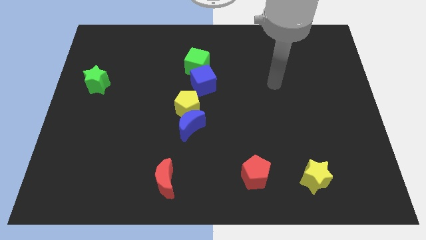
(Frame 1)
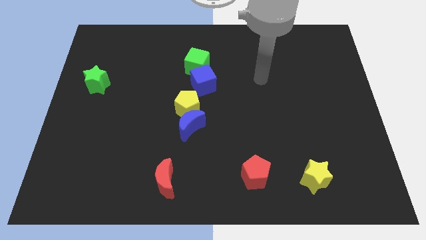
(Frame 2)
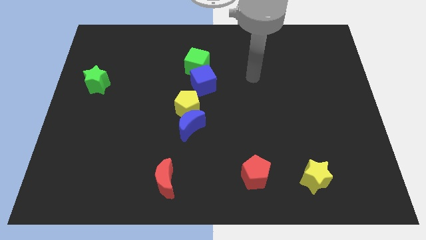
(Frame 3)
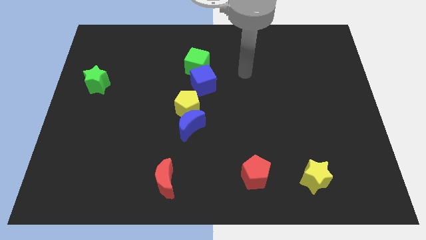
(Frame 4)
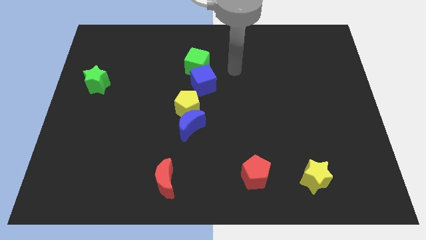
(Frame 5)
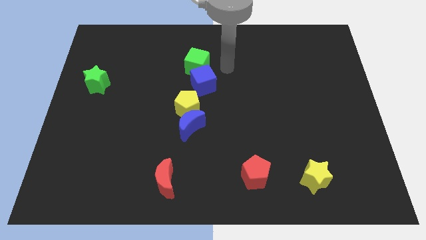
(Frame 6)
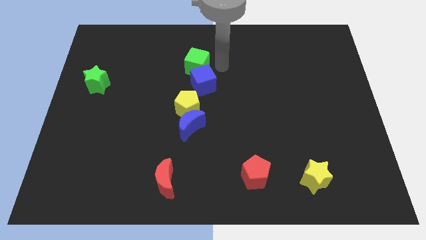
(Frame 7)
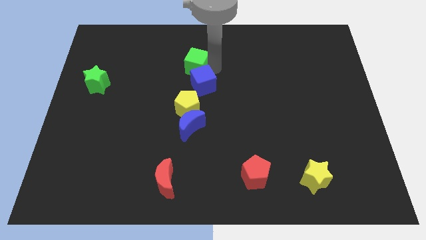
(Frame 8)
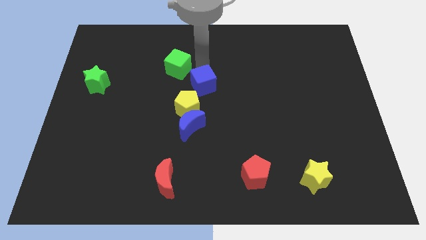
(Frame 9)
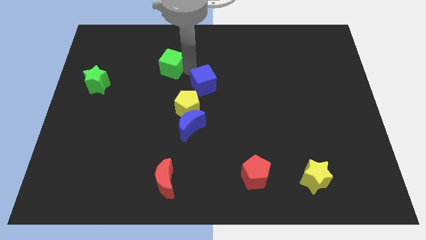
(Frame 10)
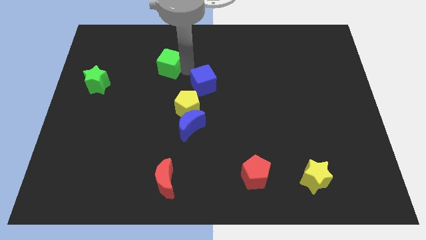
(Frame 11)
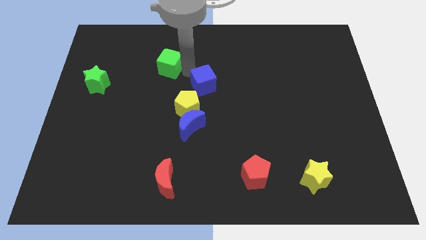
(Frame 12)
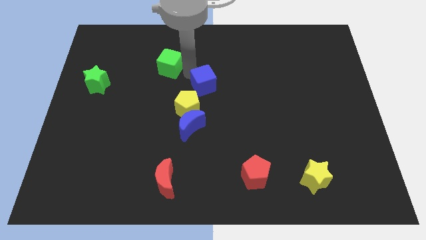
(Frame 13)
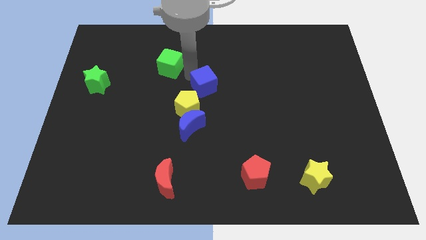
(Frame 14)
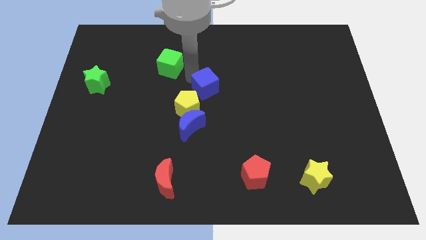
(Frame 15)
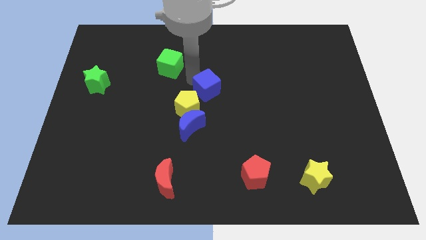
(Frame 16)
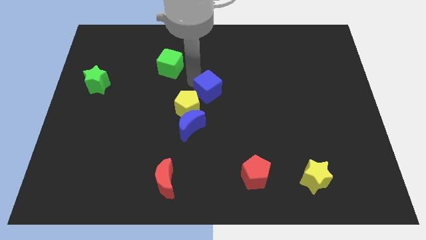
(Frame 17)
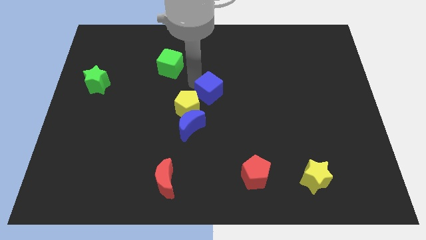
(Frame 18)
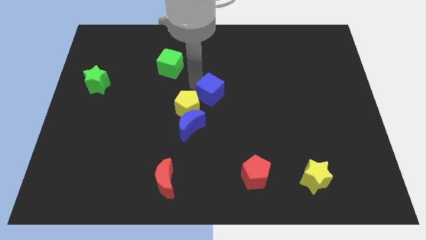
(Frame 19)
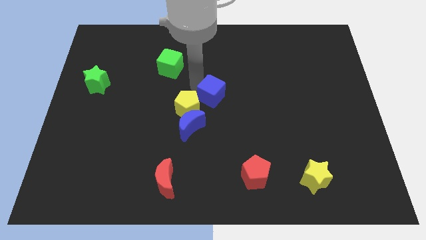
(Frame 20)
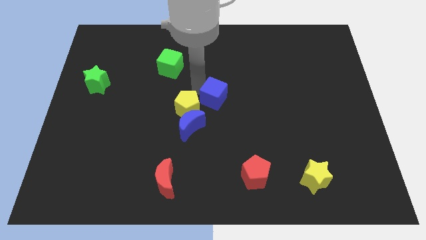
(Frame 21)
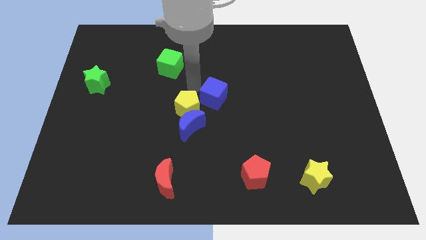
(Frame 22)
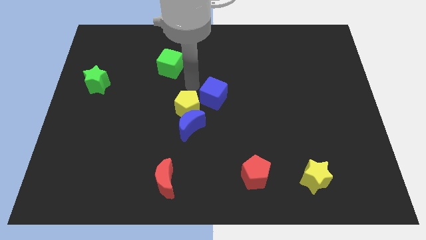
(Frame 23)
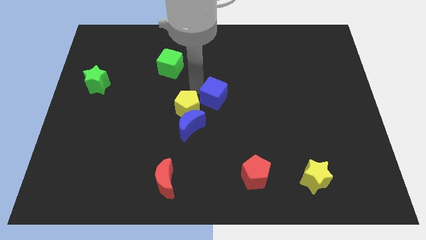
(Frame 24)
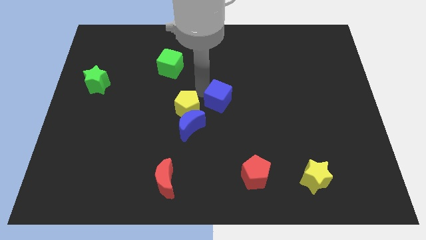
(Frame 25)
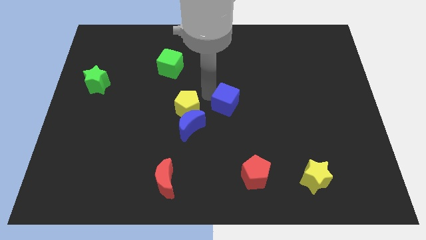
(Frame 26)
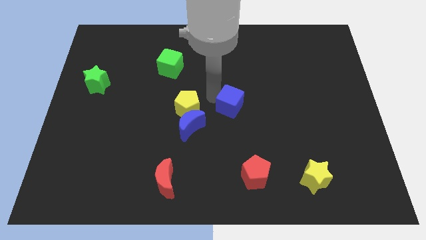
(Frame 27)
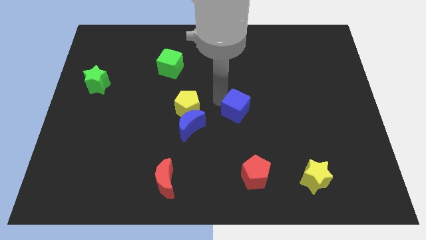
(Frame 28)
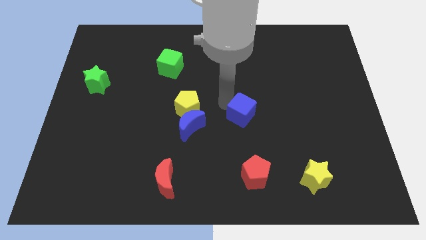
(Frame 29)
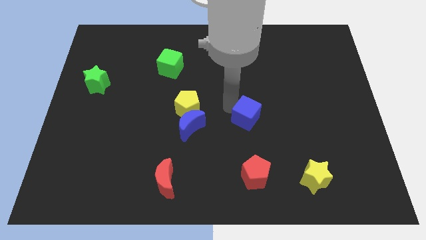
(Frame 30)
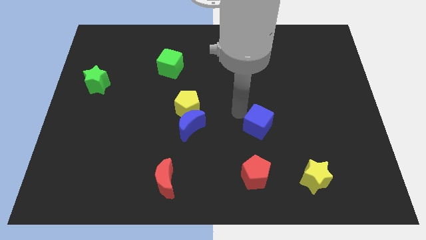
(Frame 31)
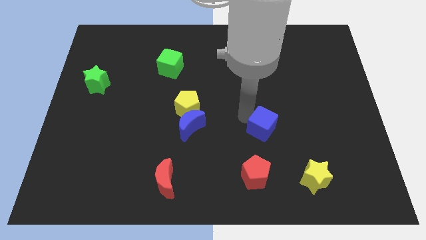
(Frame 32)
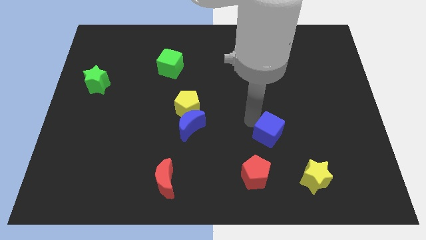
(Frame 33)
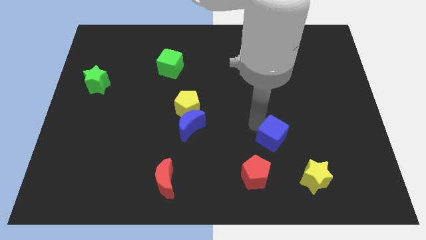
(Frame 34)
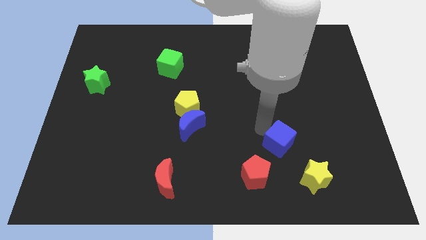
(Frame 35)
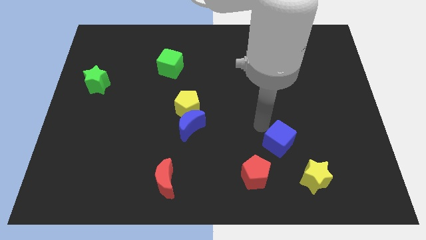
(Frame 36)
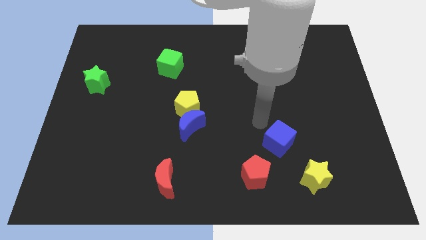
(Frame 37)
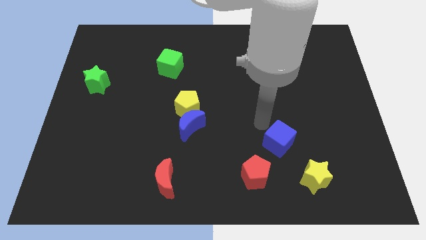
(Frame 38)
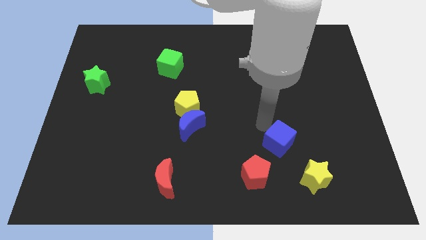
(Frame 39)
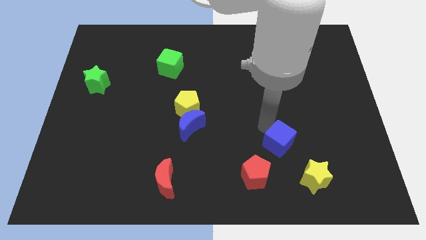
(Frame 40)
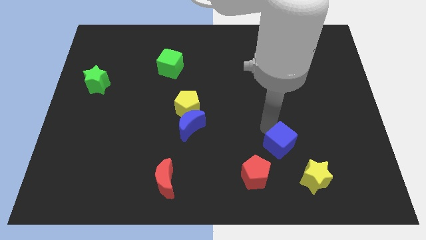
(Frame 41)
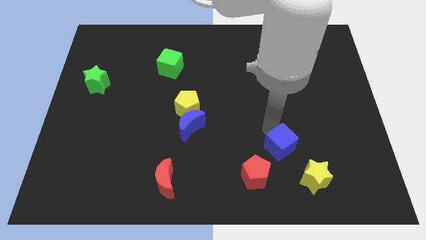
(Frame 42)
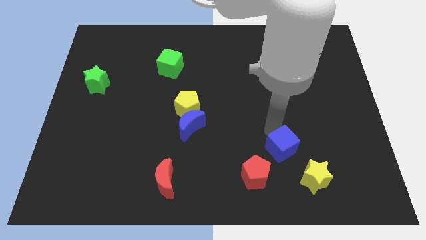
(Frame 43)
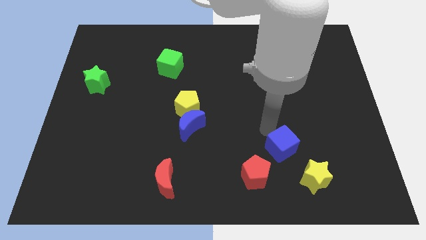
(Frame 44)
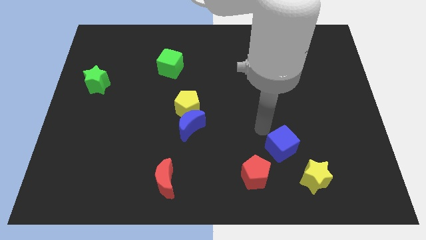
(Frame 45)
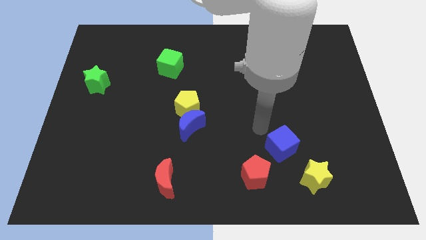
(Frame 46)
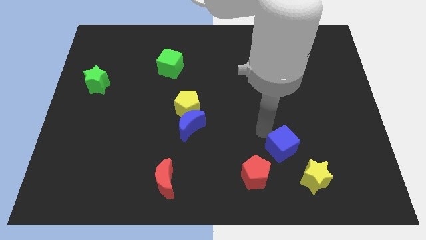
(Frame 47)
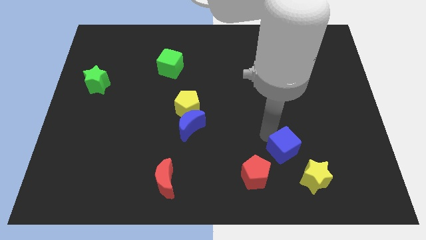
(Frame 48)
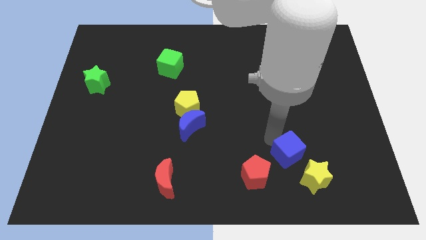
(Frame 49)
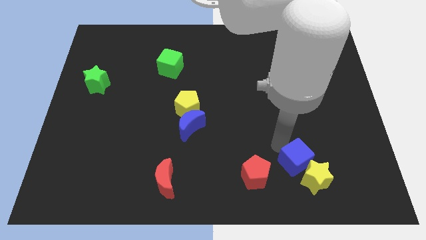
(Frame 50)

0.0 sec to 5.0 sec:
slide the blue cube towards the yellow star

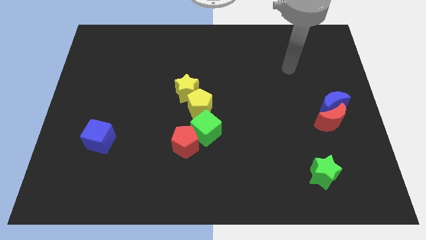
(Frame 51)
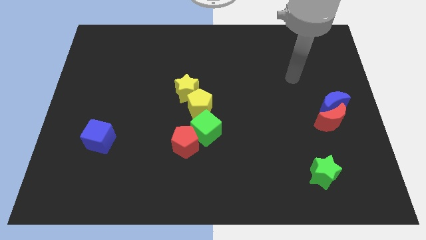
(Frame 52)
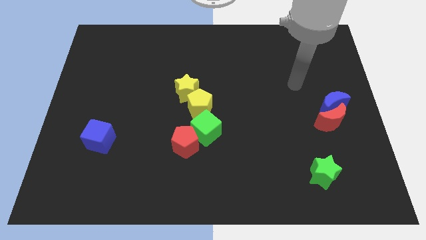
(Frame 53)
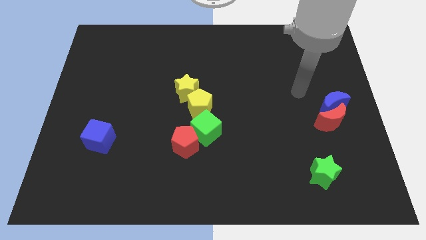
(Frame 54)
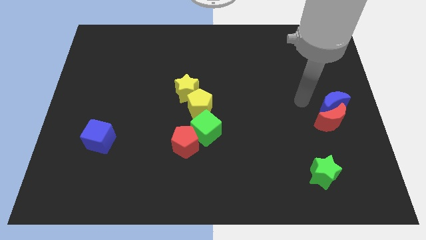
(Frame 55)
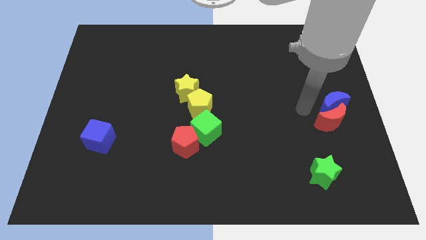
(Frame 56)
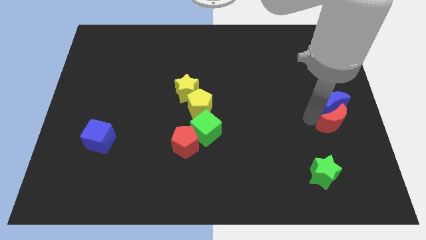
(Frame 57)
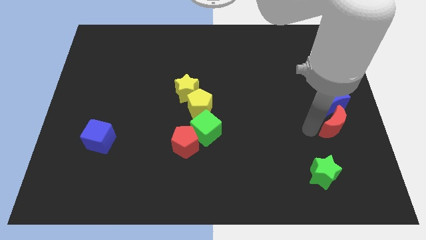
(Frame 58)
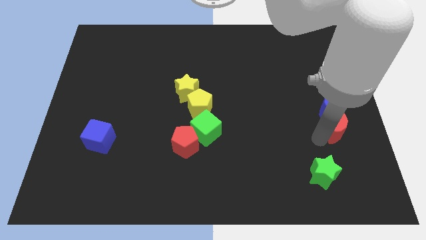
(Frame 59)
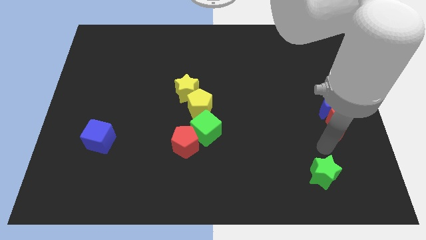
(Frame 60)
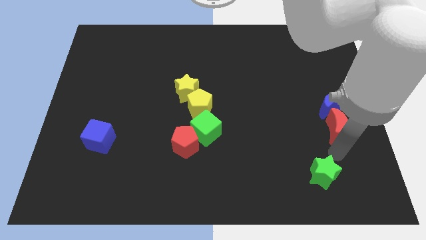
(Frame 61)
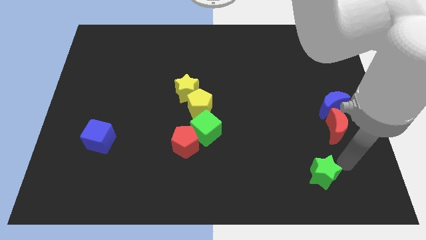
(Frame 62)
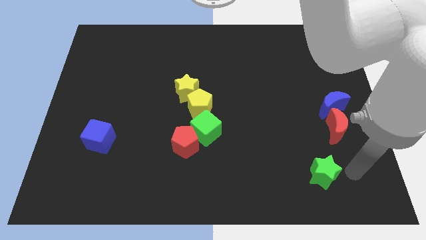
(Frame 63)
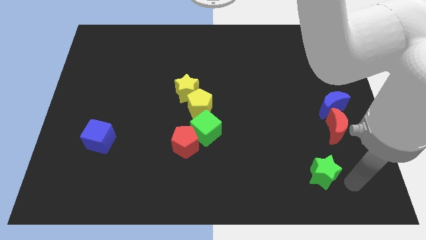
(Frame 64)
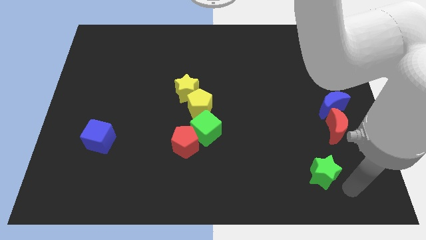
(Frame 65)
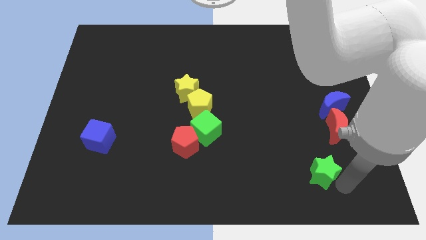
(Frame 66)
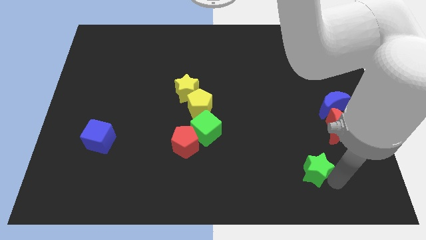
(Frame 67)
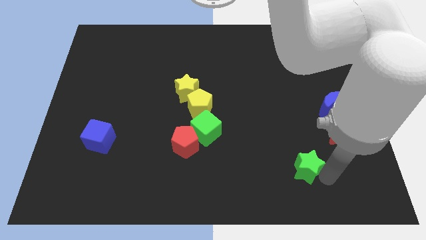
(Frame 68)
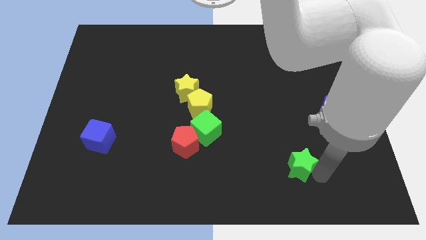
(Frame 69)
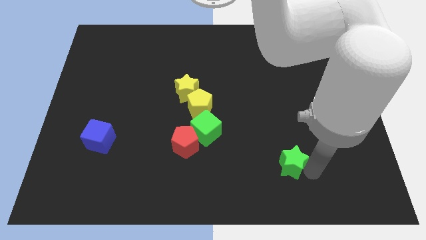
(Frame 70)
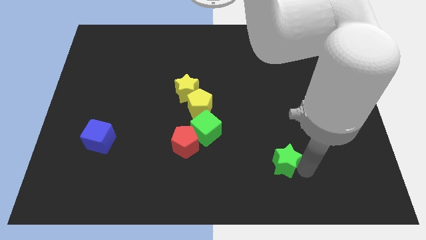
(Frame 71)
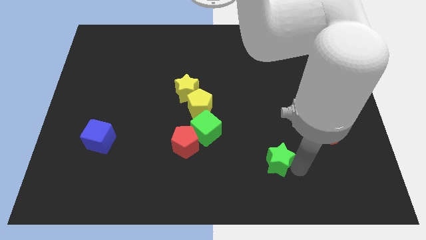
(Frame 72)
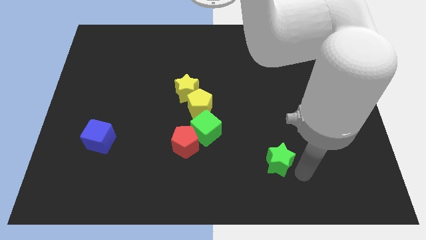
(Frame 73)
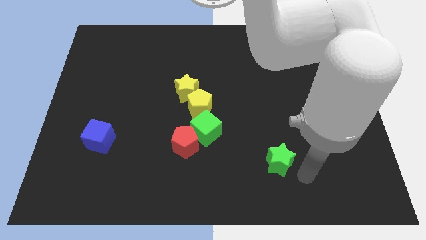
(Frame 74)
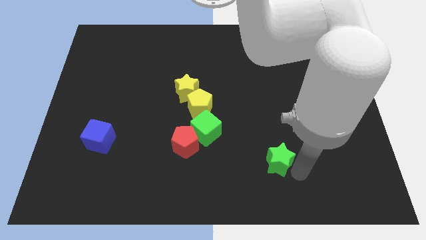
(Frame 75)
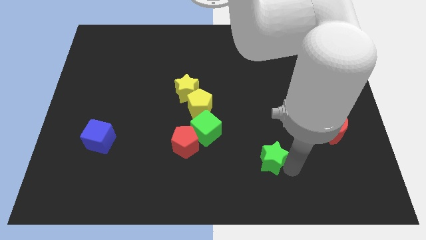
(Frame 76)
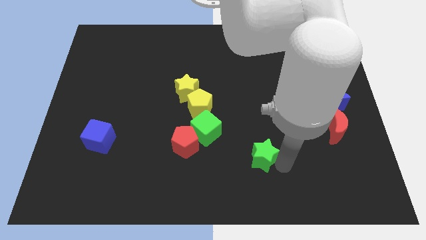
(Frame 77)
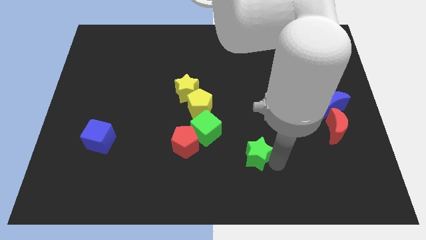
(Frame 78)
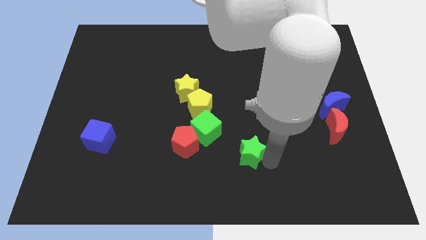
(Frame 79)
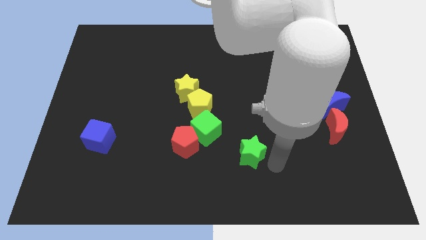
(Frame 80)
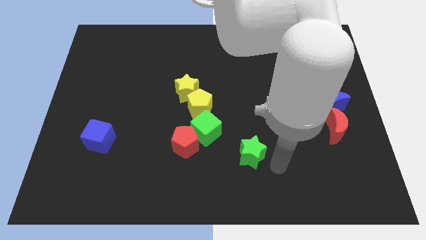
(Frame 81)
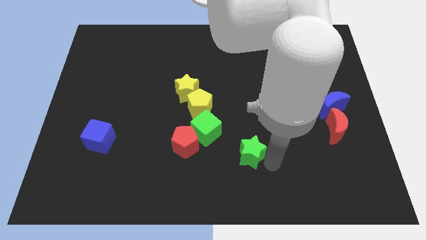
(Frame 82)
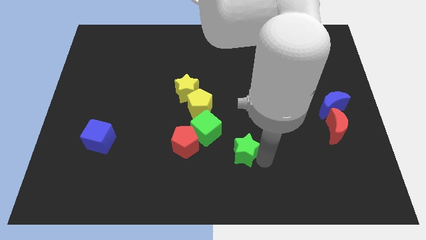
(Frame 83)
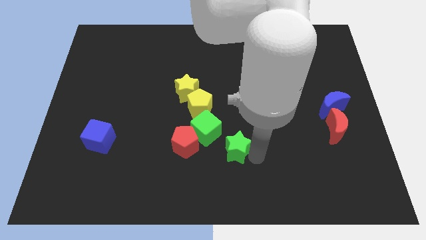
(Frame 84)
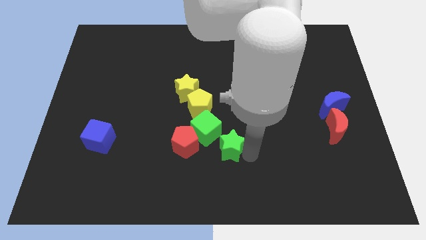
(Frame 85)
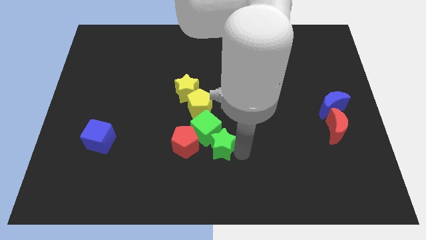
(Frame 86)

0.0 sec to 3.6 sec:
slide the green star close to the green cube
